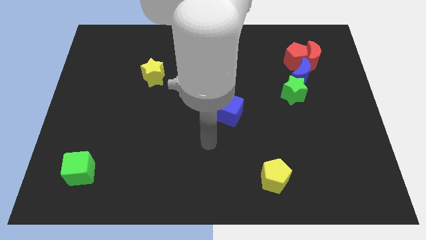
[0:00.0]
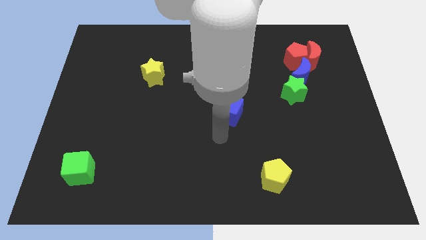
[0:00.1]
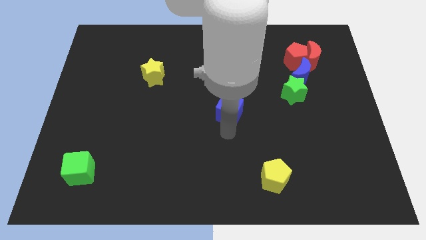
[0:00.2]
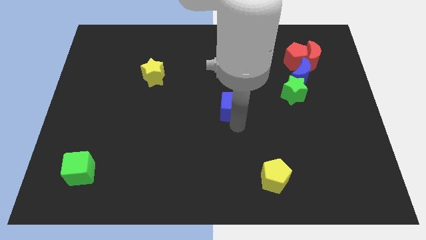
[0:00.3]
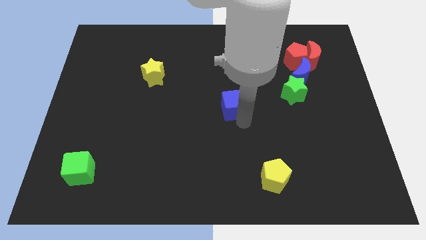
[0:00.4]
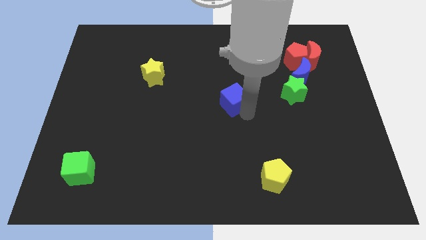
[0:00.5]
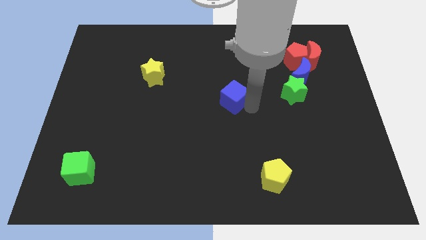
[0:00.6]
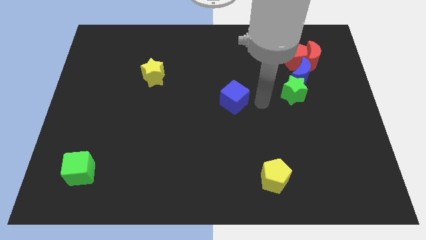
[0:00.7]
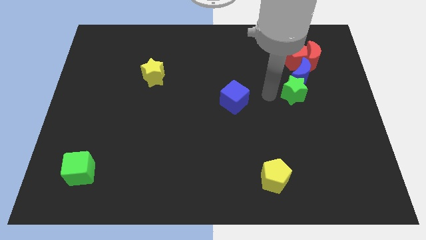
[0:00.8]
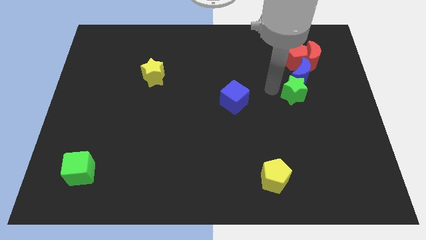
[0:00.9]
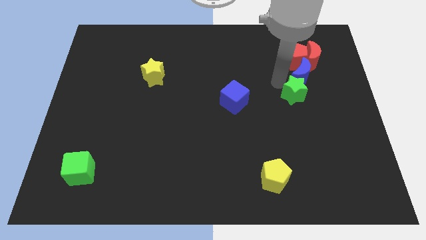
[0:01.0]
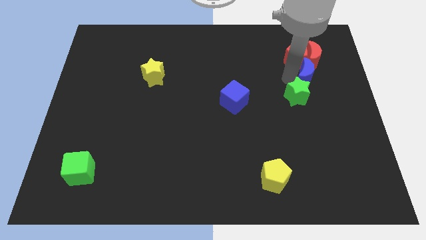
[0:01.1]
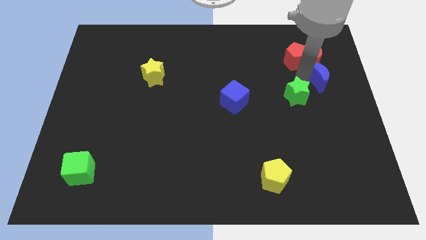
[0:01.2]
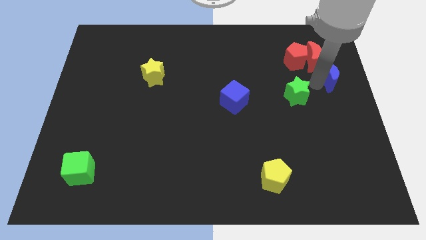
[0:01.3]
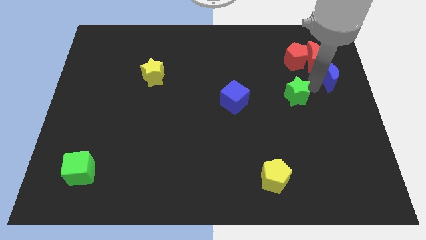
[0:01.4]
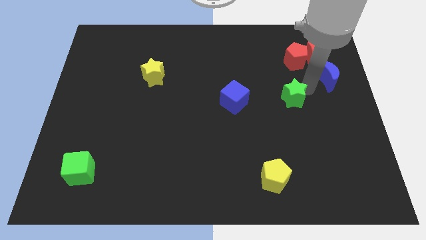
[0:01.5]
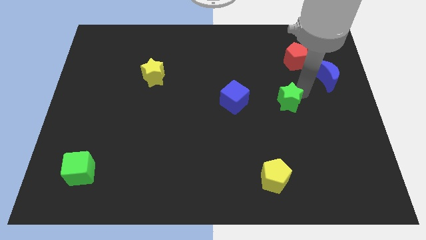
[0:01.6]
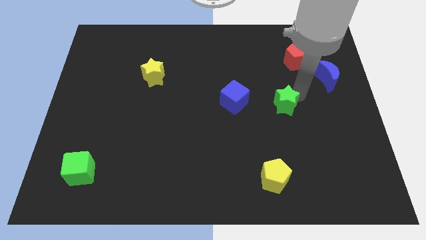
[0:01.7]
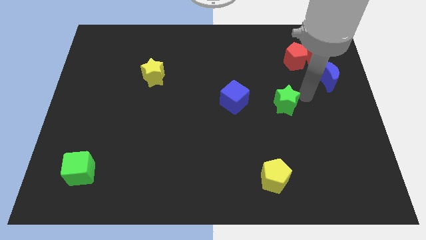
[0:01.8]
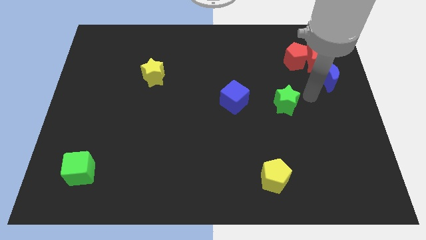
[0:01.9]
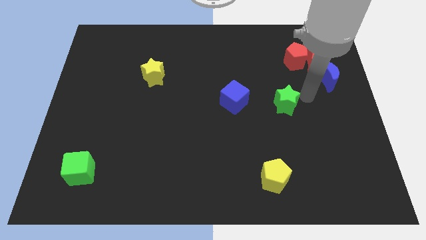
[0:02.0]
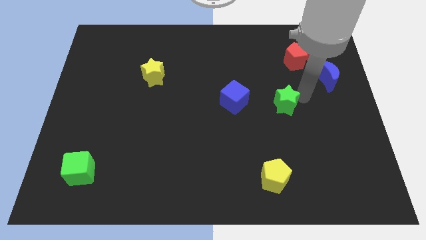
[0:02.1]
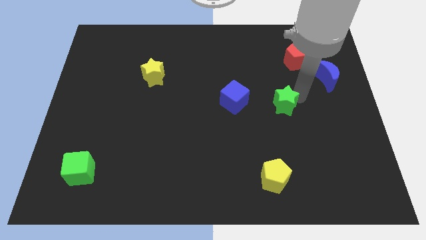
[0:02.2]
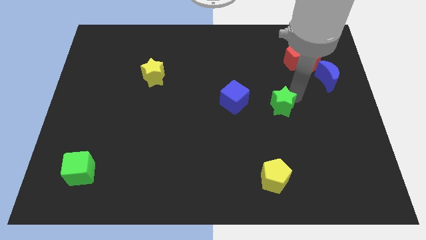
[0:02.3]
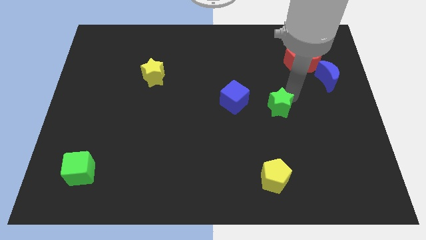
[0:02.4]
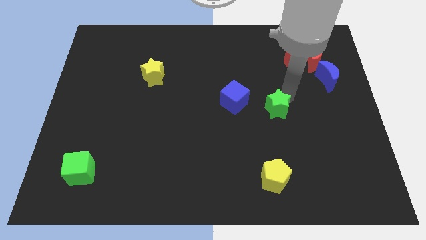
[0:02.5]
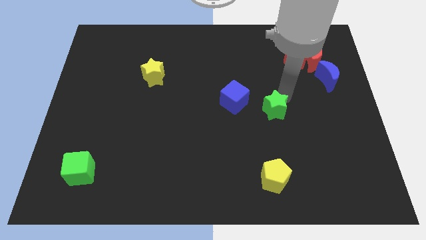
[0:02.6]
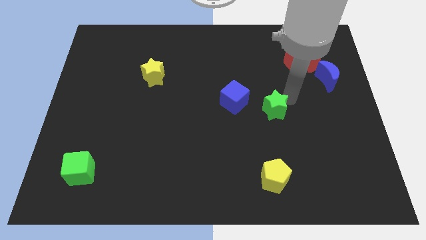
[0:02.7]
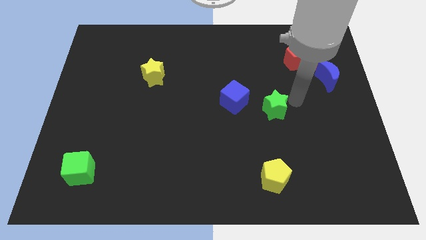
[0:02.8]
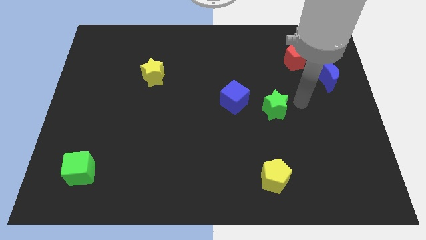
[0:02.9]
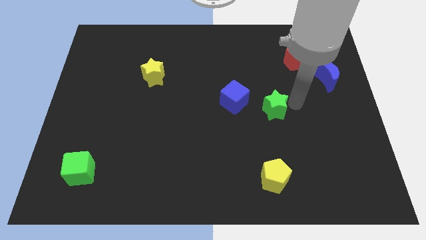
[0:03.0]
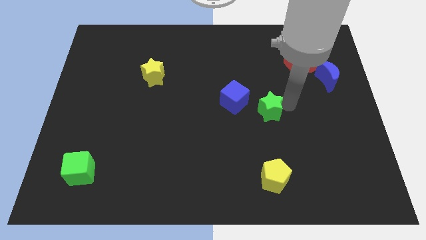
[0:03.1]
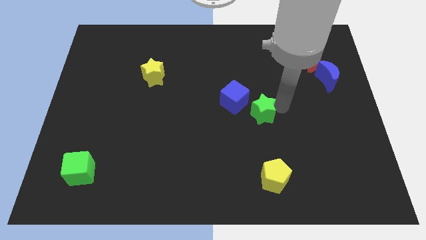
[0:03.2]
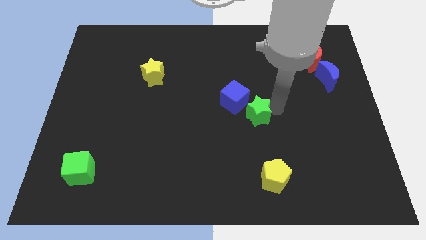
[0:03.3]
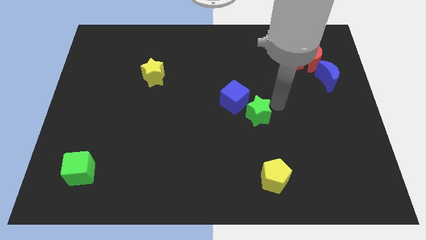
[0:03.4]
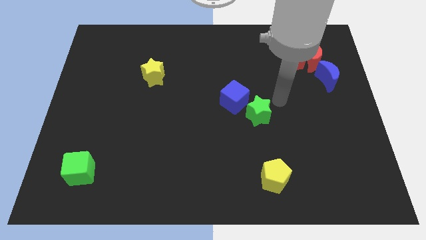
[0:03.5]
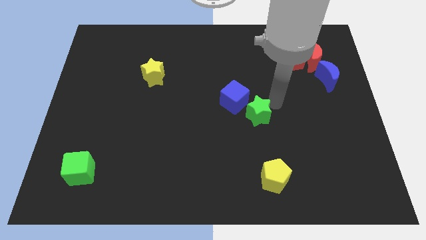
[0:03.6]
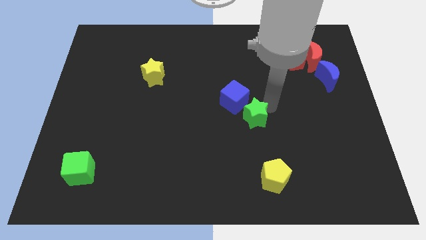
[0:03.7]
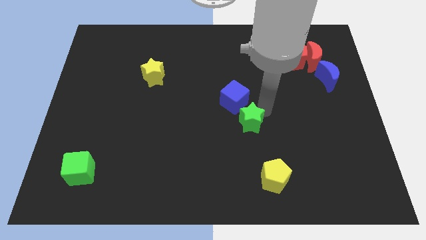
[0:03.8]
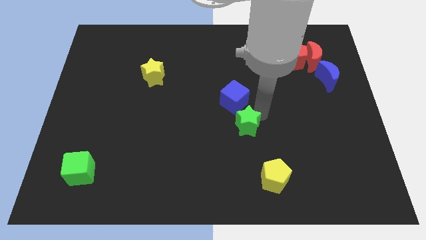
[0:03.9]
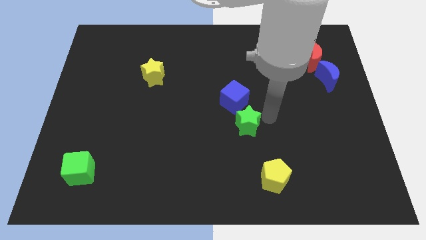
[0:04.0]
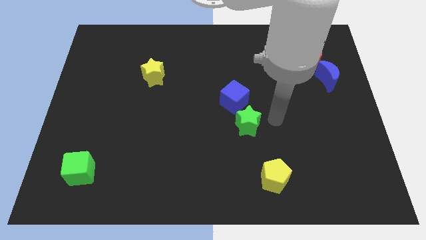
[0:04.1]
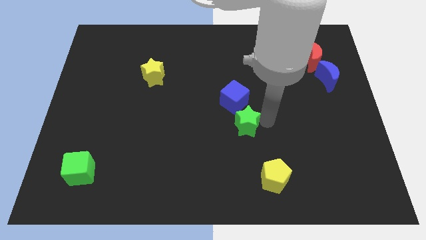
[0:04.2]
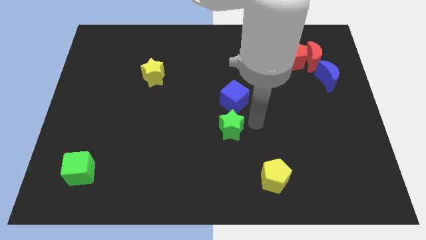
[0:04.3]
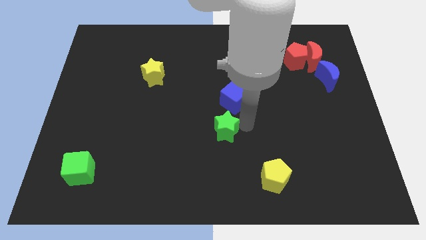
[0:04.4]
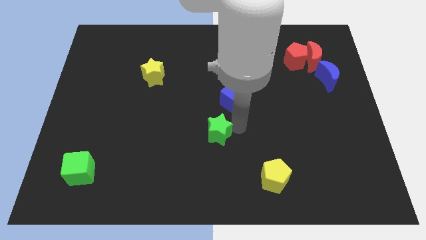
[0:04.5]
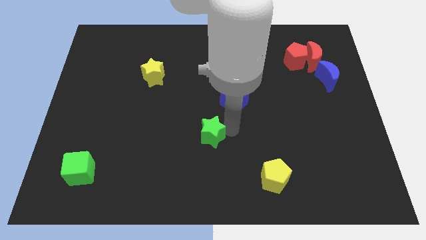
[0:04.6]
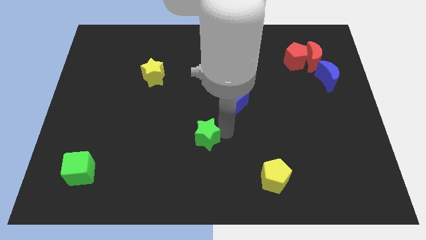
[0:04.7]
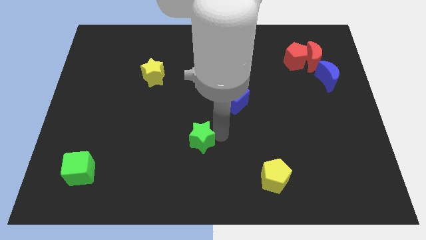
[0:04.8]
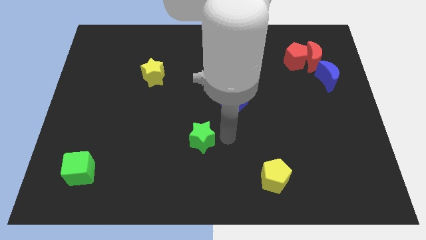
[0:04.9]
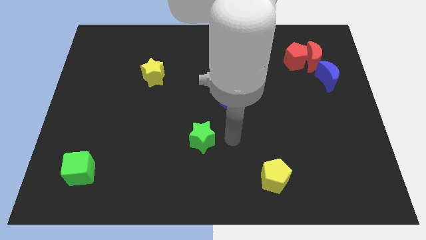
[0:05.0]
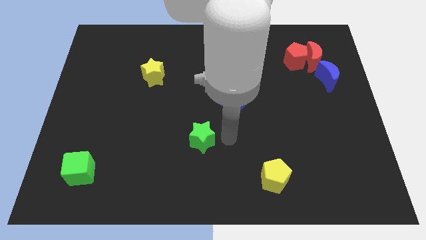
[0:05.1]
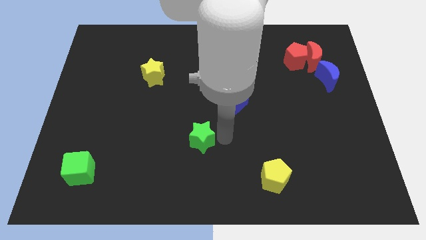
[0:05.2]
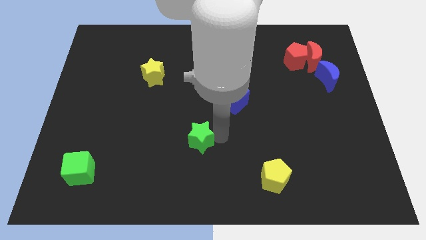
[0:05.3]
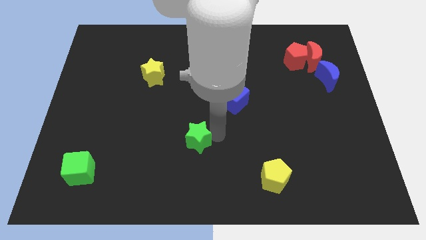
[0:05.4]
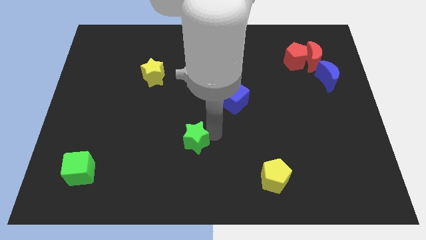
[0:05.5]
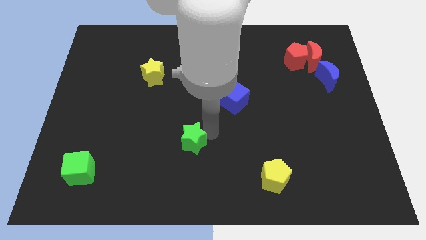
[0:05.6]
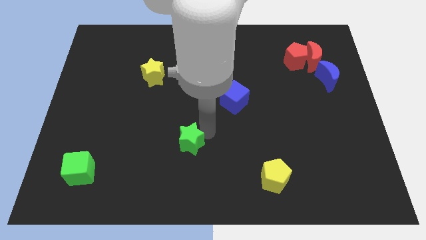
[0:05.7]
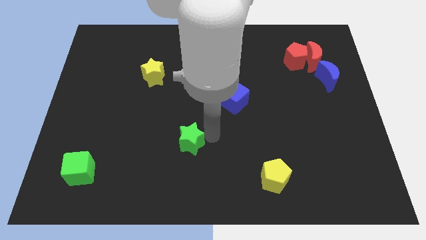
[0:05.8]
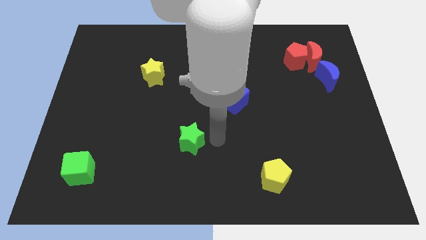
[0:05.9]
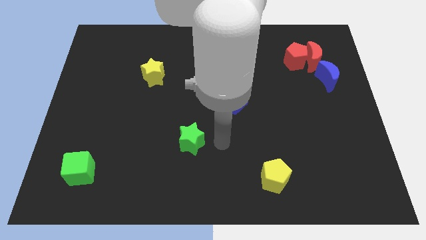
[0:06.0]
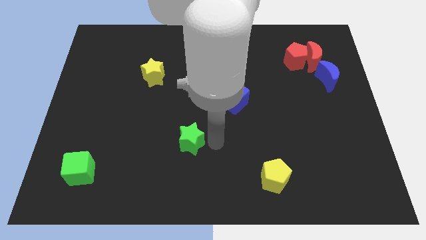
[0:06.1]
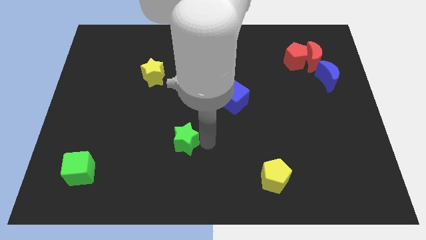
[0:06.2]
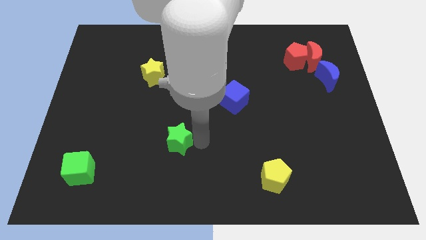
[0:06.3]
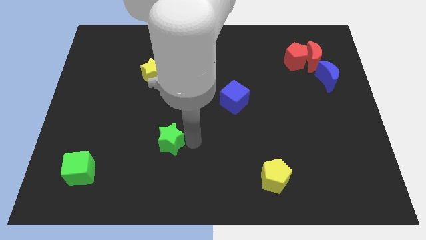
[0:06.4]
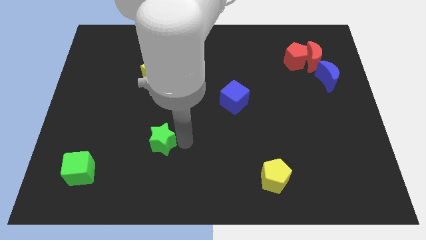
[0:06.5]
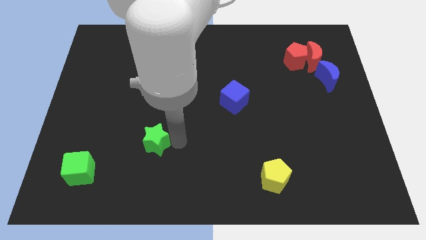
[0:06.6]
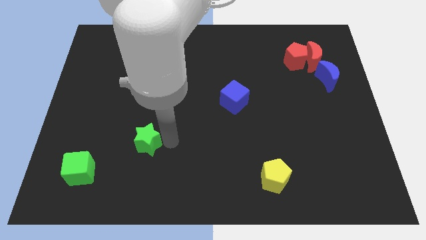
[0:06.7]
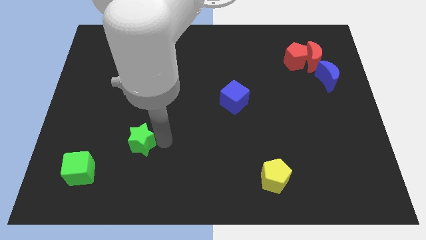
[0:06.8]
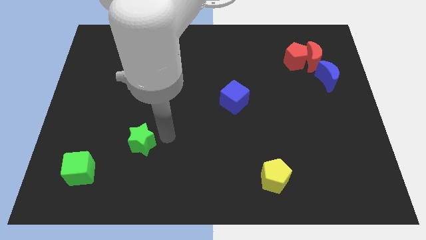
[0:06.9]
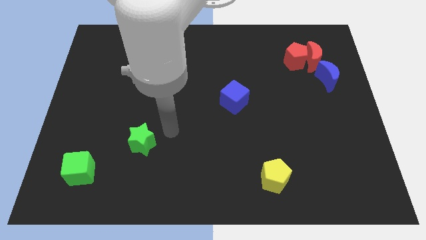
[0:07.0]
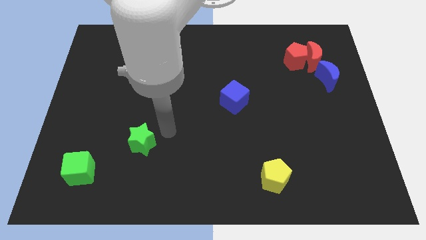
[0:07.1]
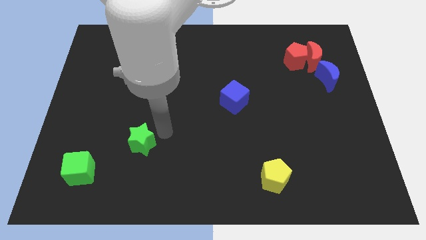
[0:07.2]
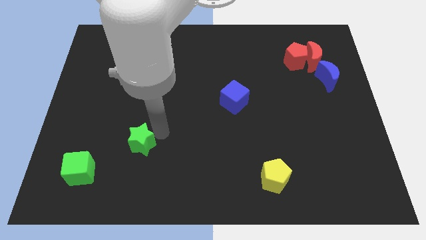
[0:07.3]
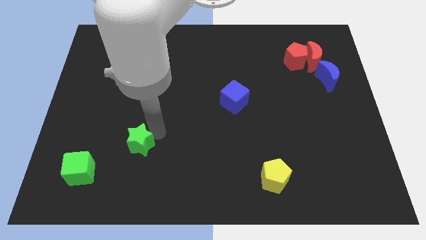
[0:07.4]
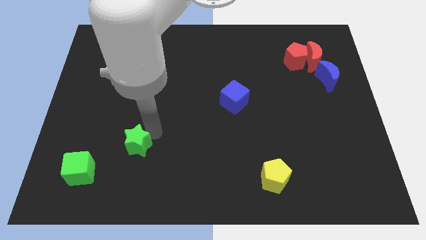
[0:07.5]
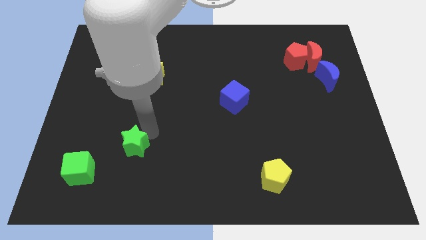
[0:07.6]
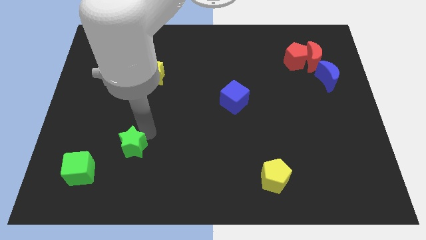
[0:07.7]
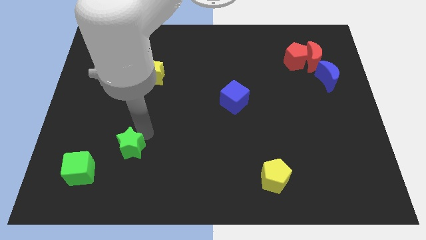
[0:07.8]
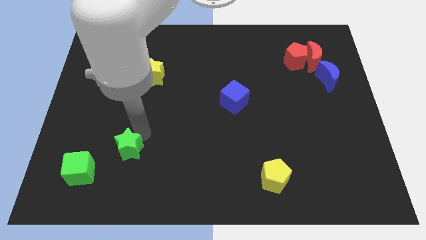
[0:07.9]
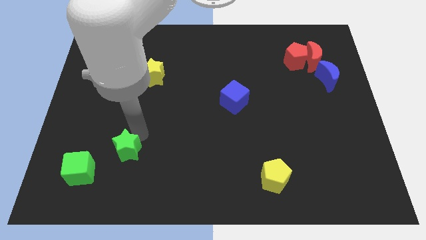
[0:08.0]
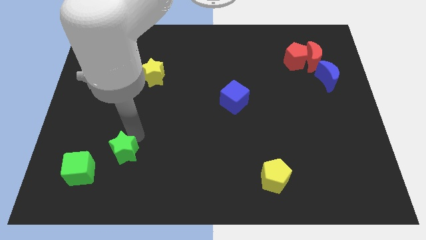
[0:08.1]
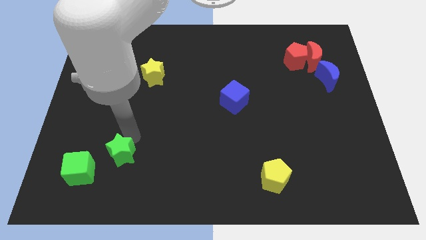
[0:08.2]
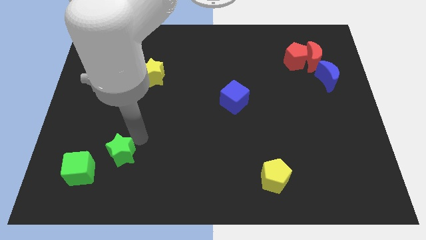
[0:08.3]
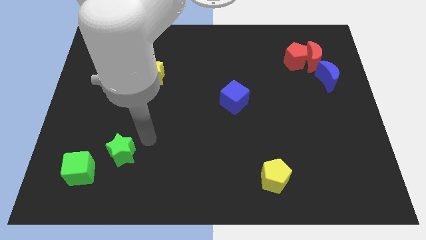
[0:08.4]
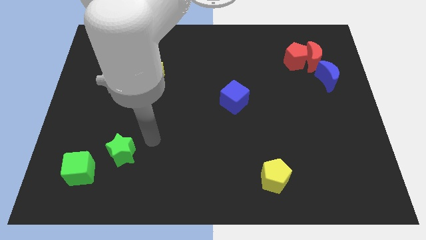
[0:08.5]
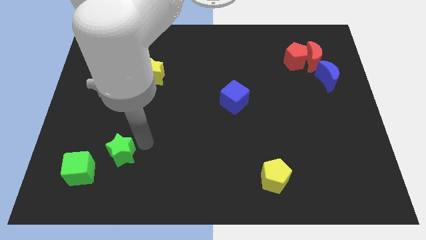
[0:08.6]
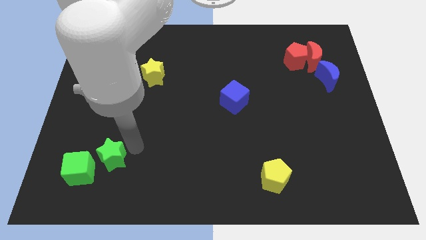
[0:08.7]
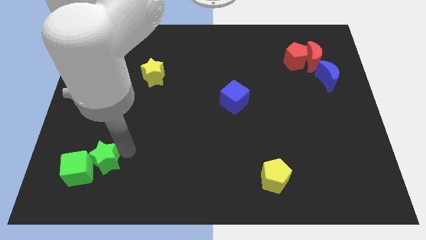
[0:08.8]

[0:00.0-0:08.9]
put the green star to the green cube
